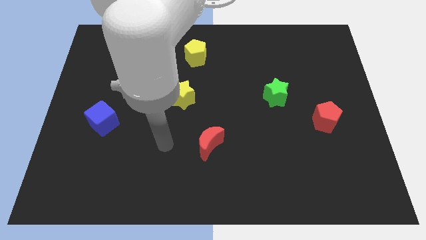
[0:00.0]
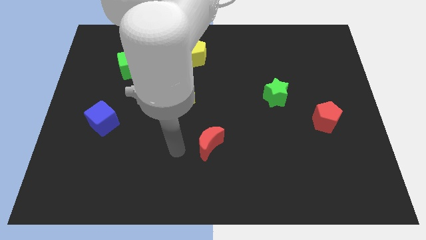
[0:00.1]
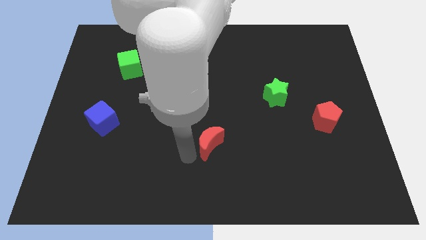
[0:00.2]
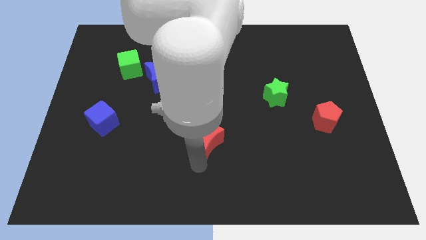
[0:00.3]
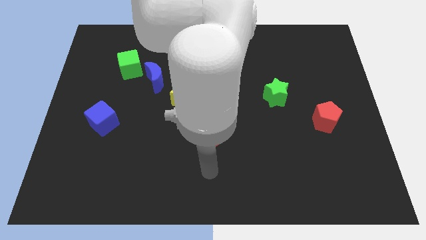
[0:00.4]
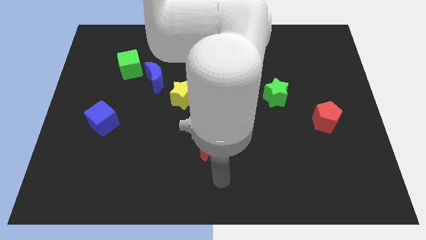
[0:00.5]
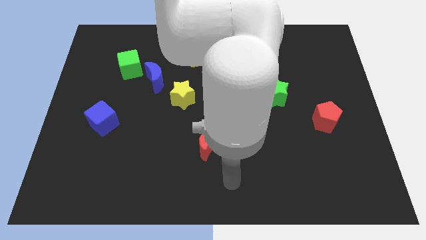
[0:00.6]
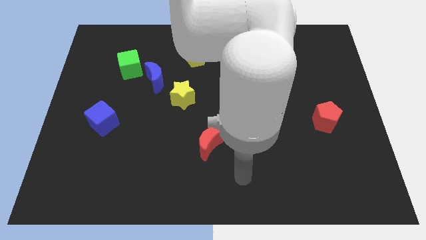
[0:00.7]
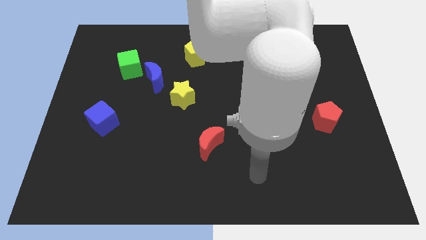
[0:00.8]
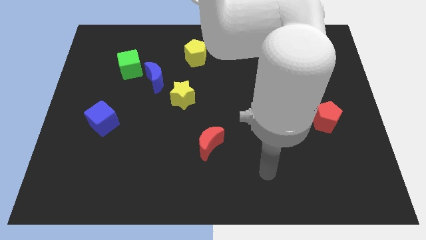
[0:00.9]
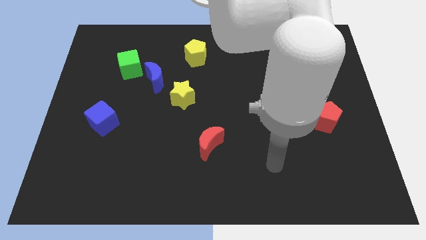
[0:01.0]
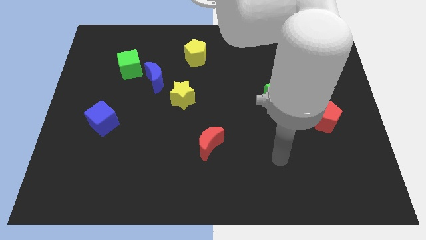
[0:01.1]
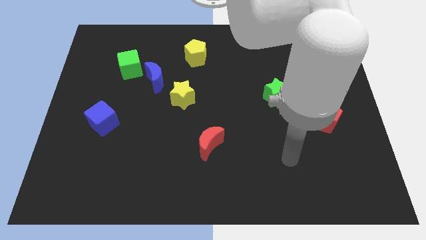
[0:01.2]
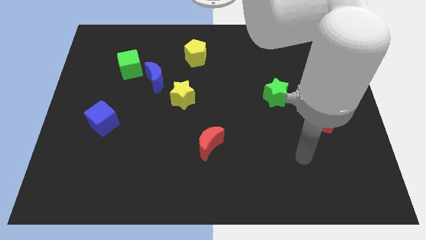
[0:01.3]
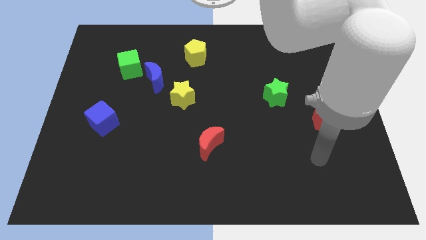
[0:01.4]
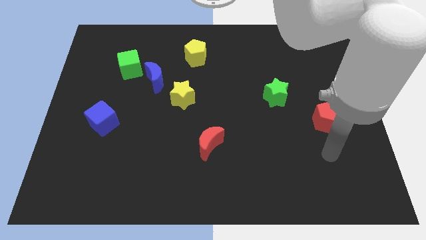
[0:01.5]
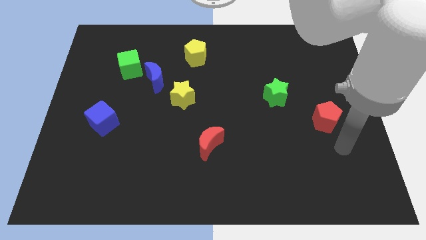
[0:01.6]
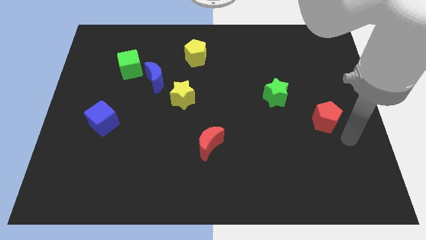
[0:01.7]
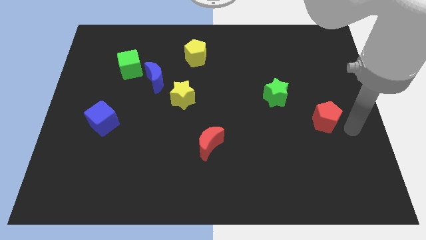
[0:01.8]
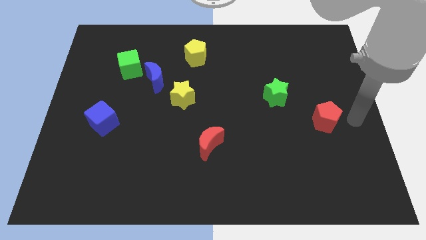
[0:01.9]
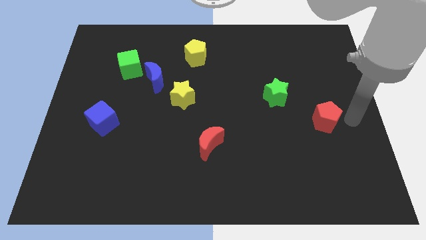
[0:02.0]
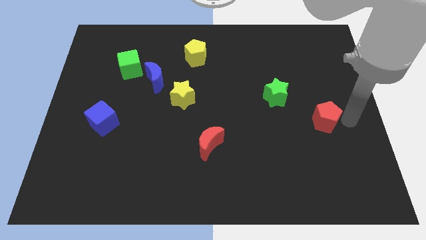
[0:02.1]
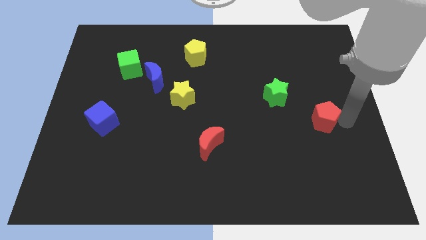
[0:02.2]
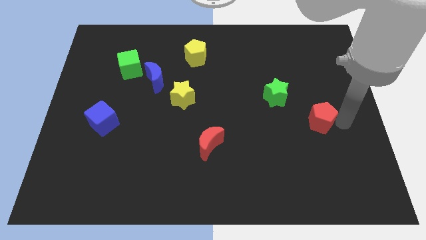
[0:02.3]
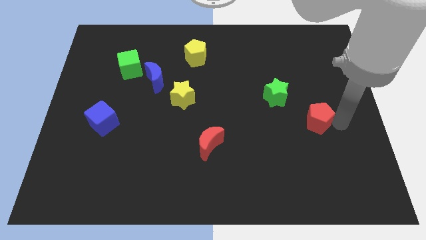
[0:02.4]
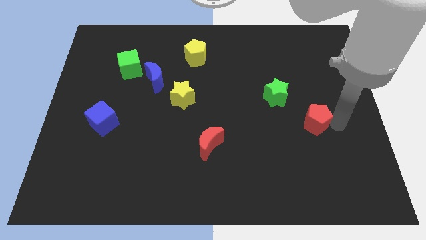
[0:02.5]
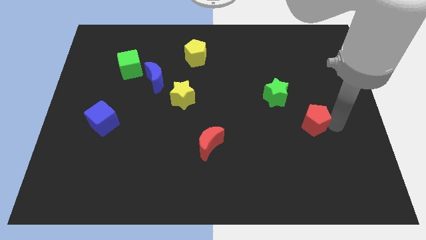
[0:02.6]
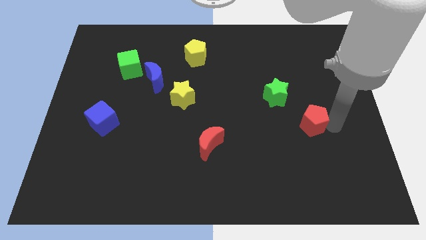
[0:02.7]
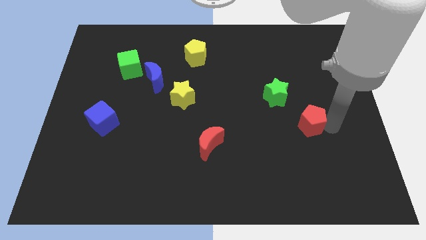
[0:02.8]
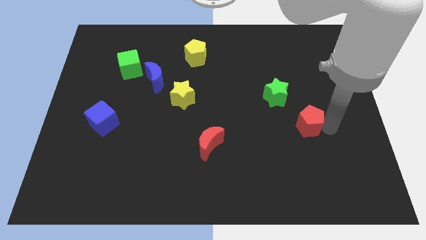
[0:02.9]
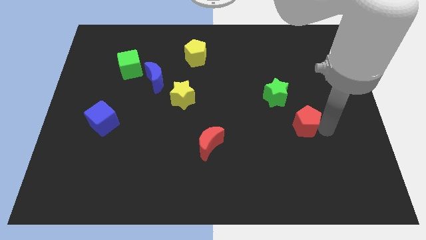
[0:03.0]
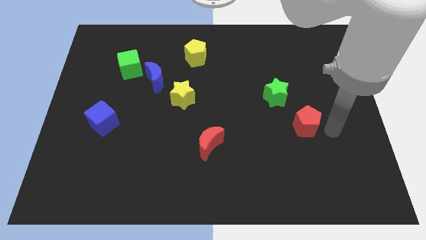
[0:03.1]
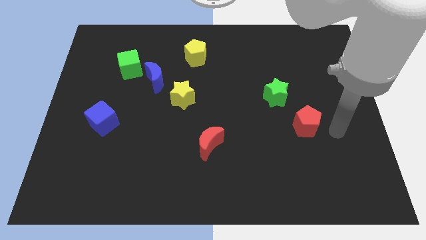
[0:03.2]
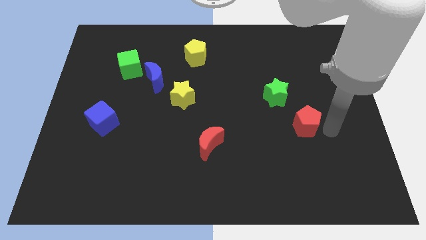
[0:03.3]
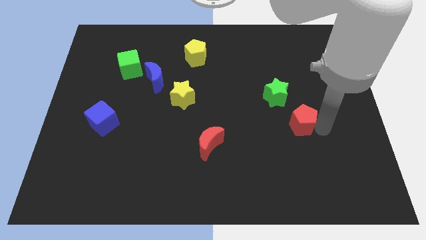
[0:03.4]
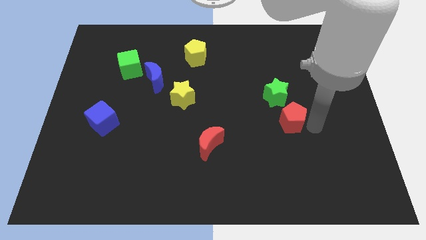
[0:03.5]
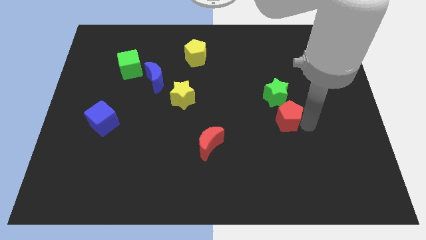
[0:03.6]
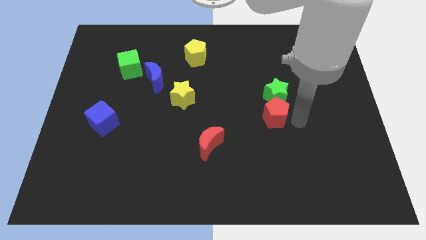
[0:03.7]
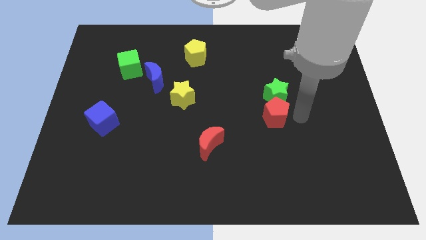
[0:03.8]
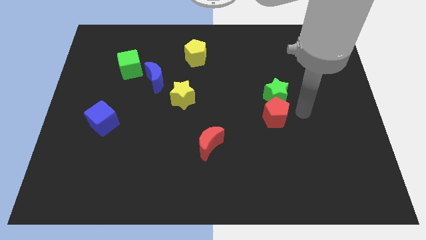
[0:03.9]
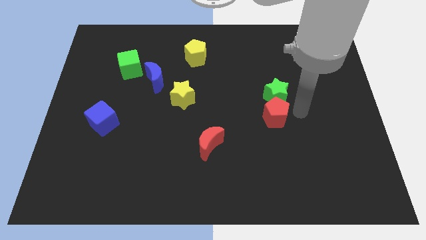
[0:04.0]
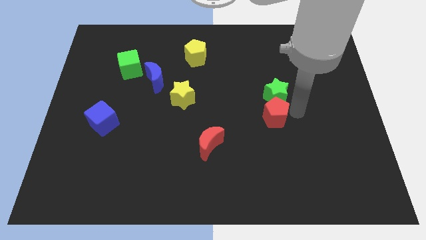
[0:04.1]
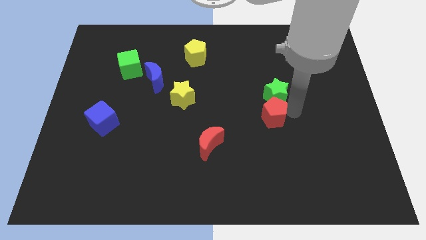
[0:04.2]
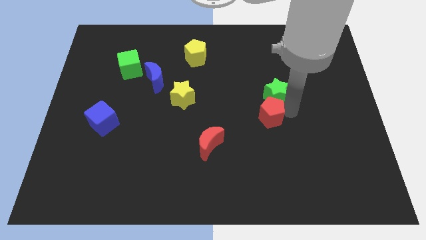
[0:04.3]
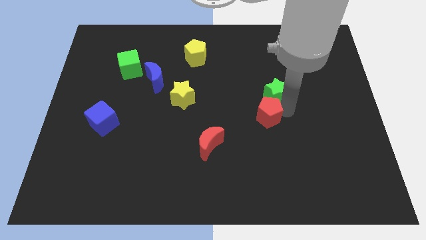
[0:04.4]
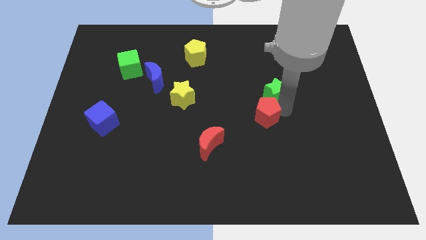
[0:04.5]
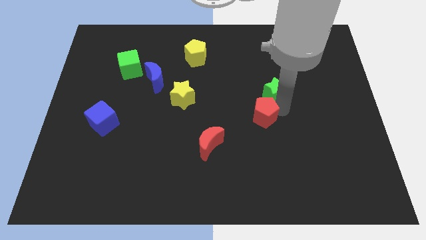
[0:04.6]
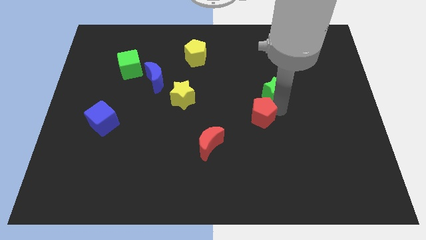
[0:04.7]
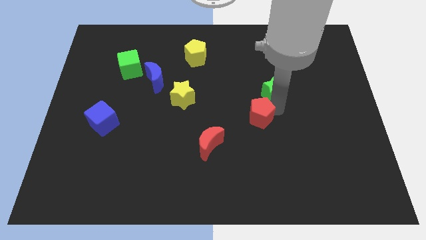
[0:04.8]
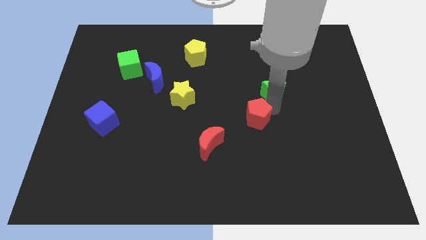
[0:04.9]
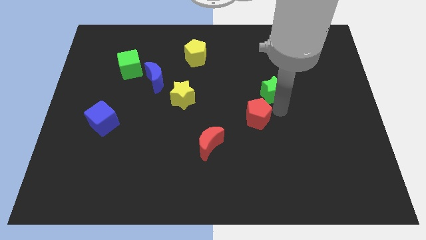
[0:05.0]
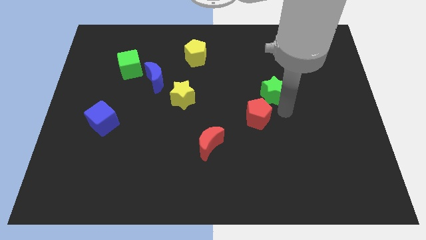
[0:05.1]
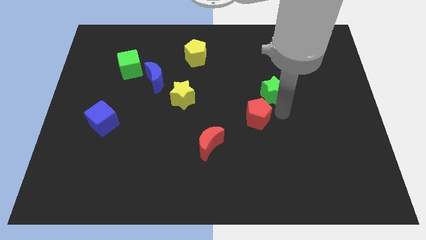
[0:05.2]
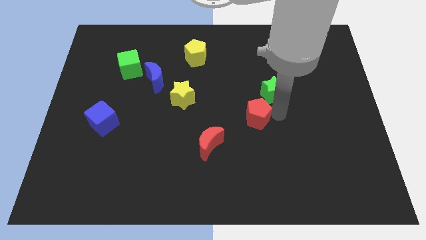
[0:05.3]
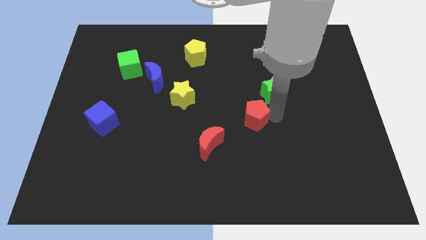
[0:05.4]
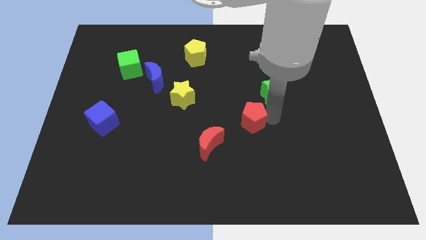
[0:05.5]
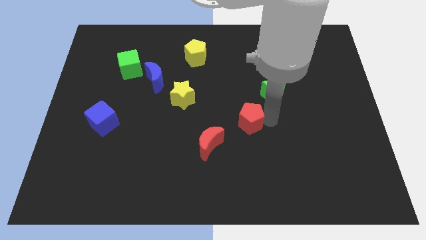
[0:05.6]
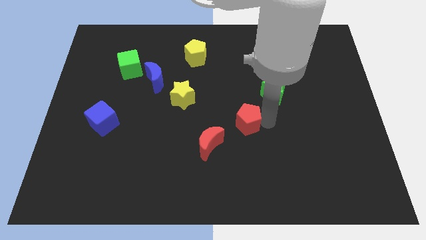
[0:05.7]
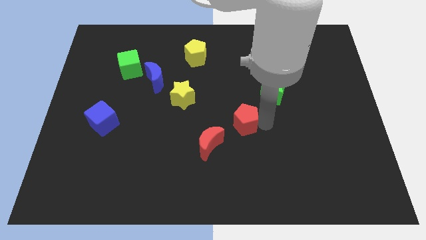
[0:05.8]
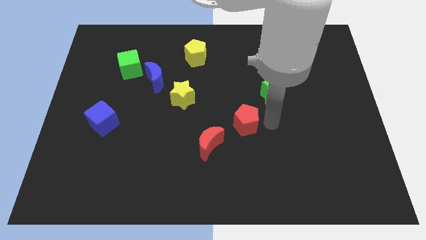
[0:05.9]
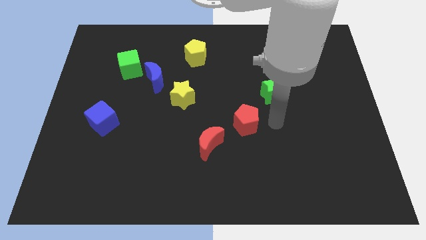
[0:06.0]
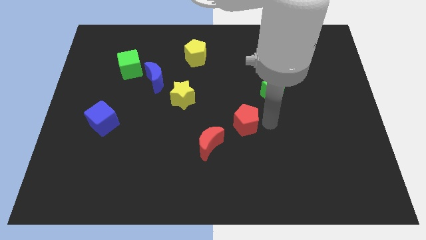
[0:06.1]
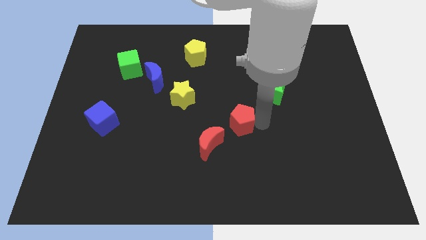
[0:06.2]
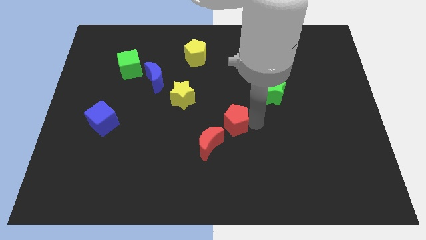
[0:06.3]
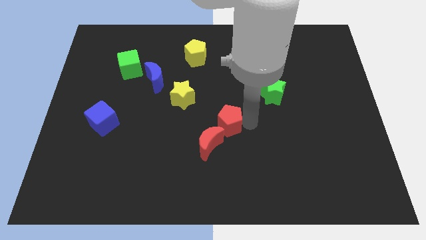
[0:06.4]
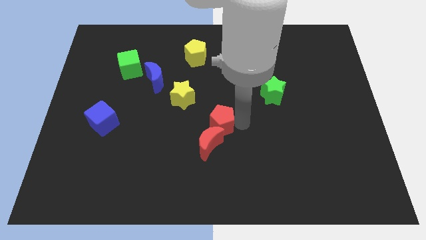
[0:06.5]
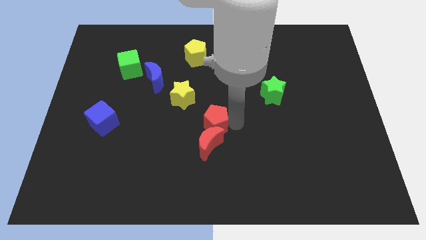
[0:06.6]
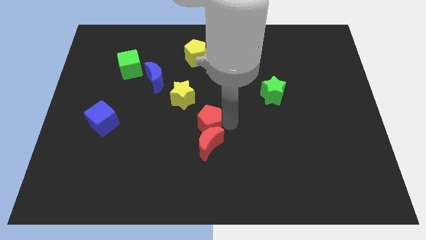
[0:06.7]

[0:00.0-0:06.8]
put the red pentagon to the top left of the red moon
